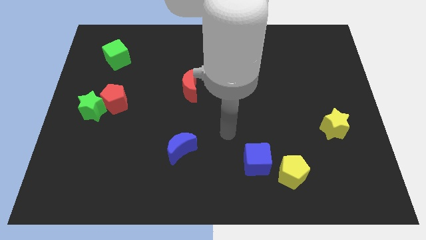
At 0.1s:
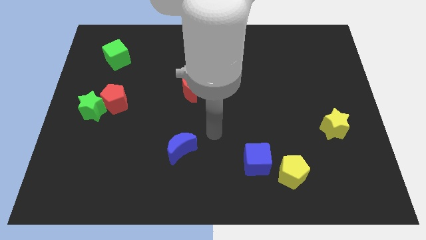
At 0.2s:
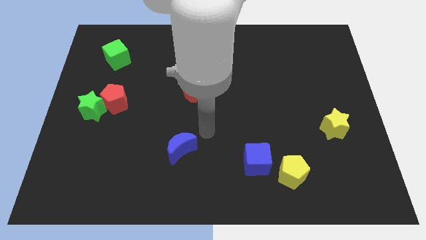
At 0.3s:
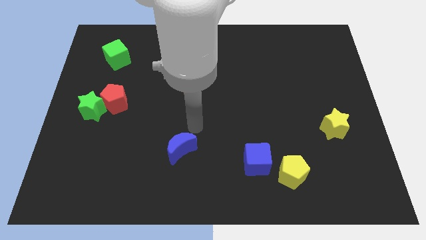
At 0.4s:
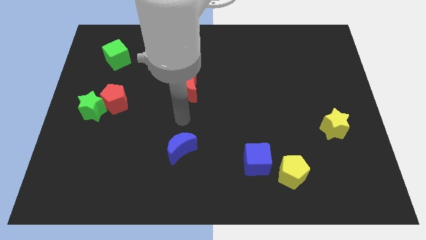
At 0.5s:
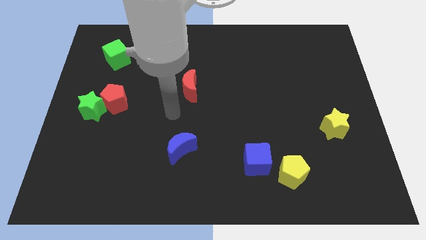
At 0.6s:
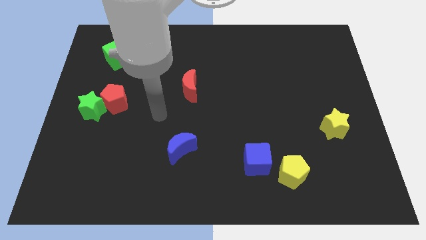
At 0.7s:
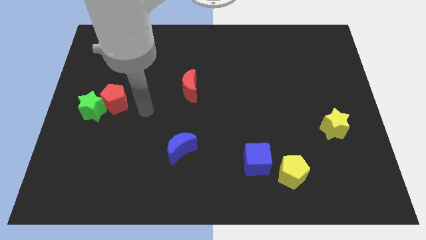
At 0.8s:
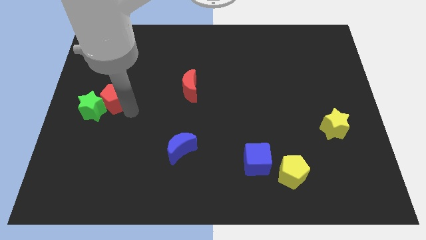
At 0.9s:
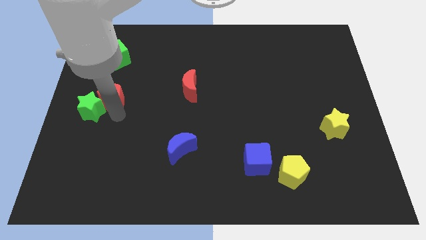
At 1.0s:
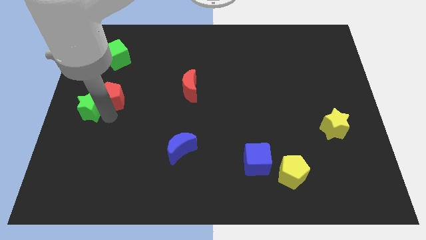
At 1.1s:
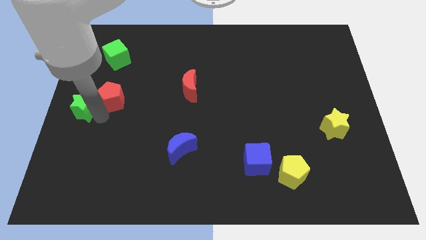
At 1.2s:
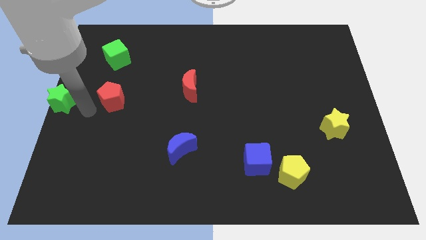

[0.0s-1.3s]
pull the red pentagon apart from the green star

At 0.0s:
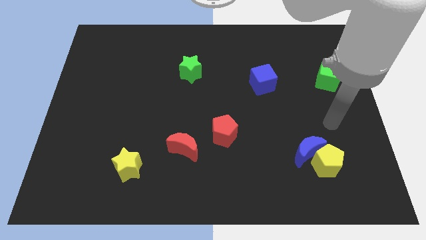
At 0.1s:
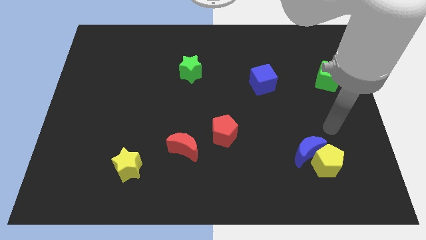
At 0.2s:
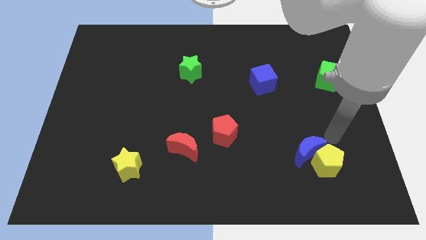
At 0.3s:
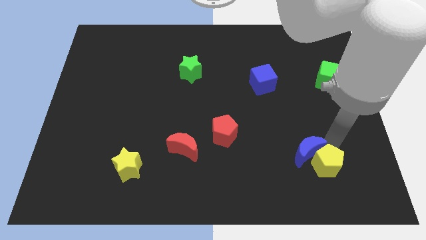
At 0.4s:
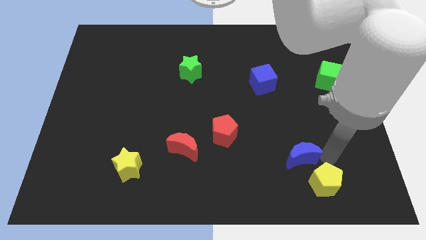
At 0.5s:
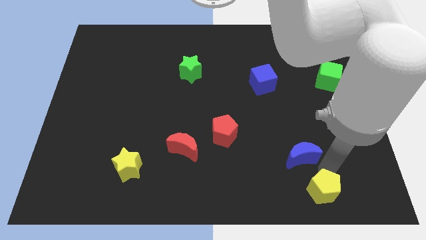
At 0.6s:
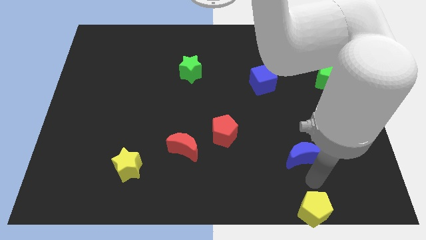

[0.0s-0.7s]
pull the blue moon apart from the yellow pentagon

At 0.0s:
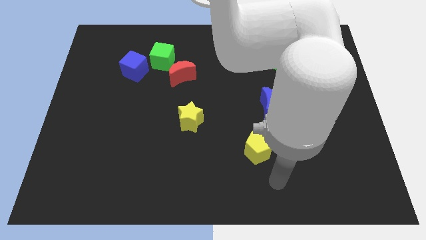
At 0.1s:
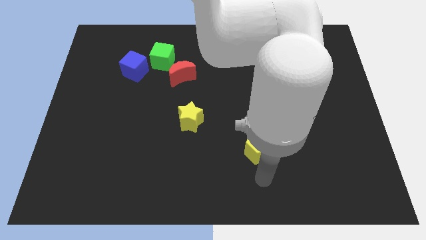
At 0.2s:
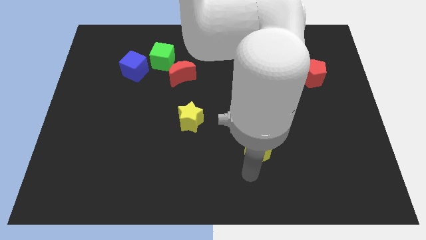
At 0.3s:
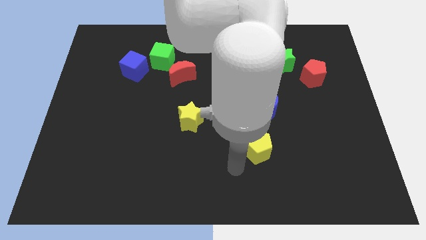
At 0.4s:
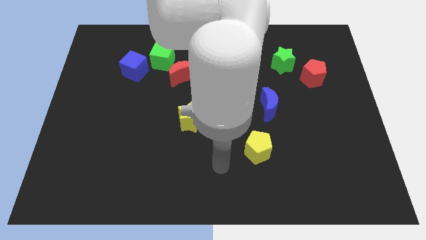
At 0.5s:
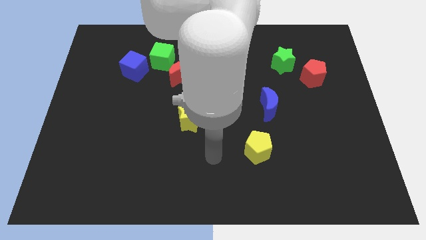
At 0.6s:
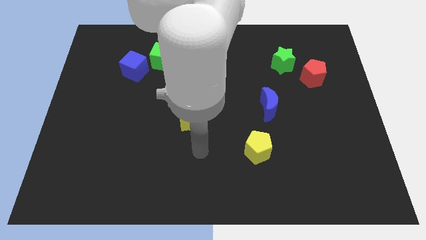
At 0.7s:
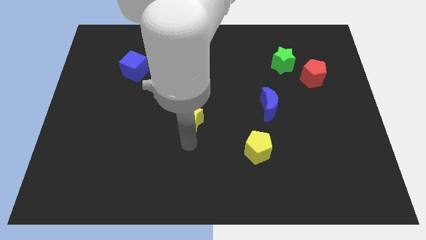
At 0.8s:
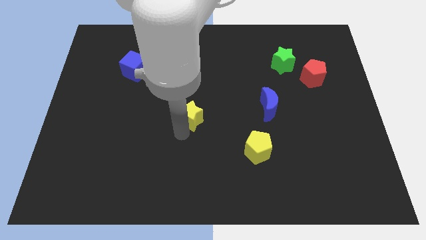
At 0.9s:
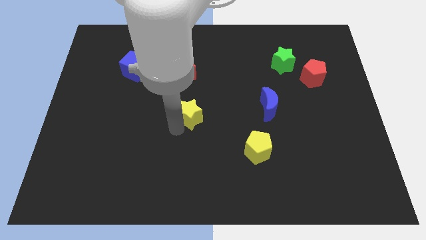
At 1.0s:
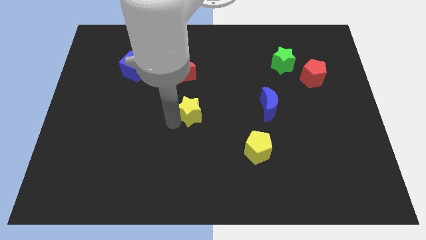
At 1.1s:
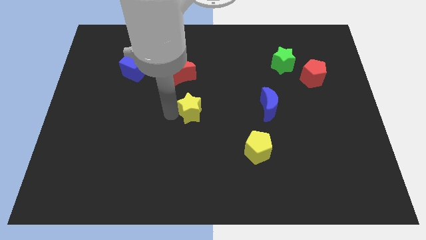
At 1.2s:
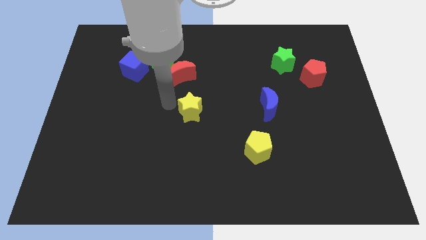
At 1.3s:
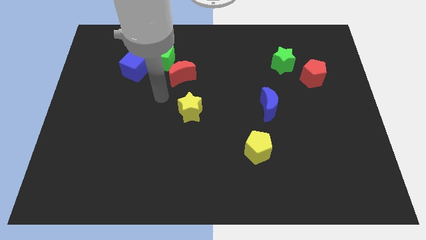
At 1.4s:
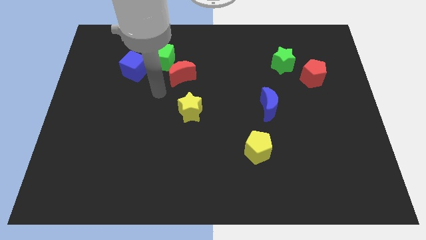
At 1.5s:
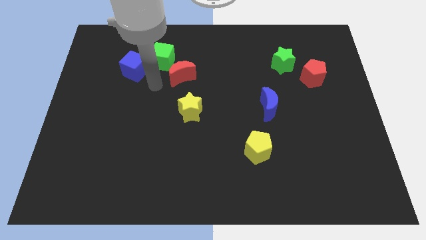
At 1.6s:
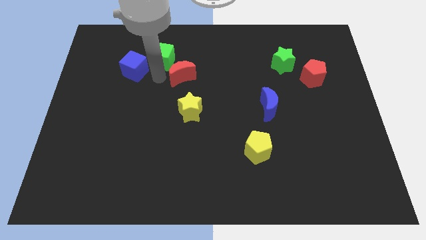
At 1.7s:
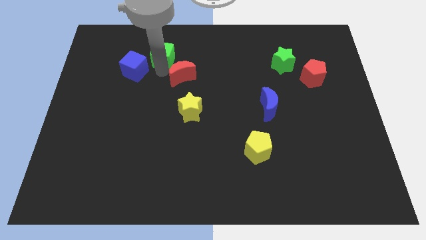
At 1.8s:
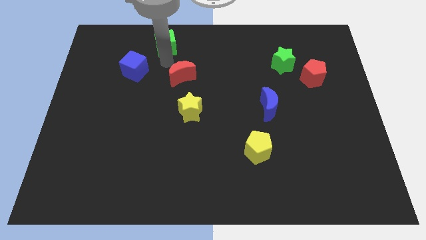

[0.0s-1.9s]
separate the red moon from the green cube

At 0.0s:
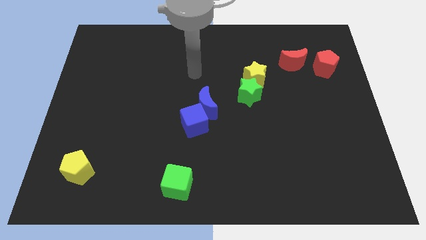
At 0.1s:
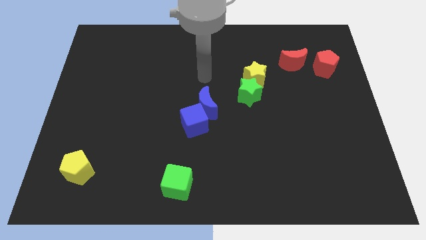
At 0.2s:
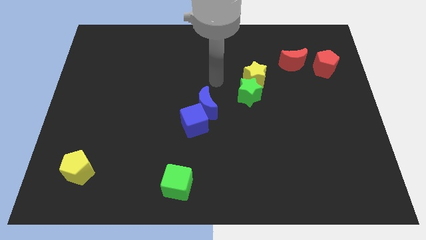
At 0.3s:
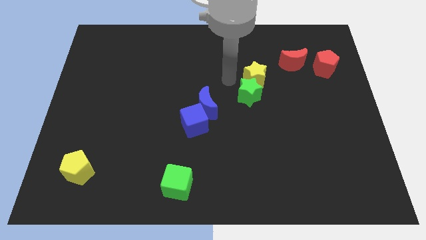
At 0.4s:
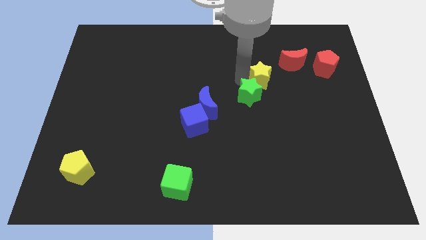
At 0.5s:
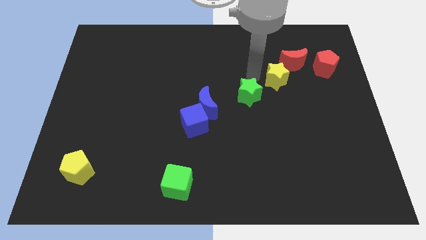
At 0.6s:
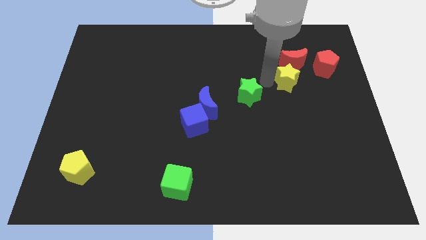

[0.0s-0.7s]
separate the green star from the yellow star

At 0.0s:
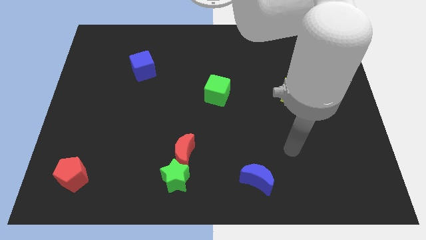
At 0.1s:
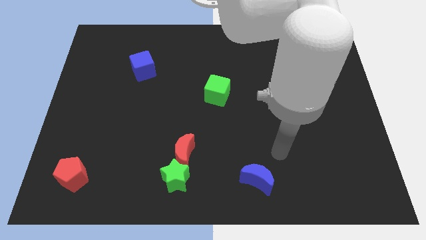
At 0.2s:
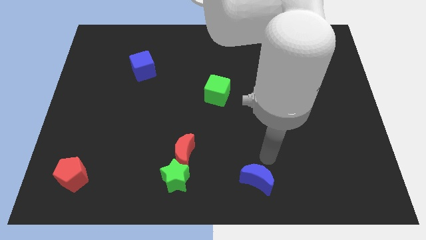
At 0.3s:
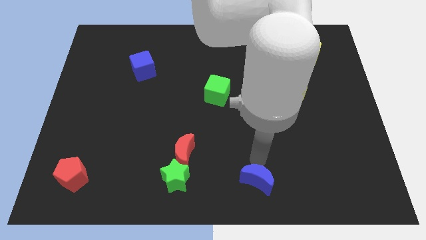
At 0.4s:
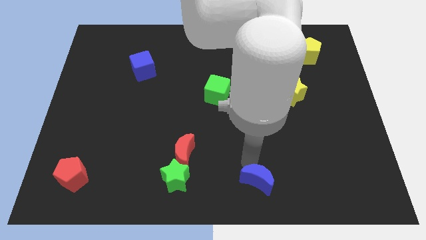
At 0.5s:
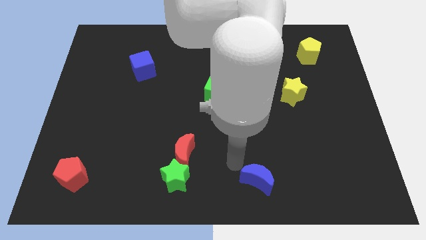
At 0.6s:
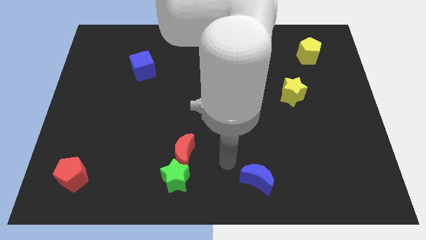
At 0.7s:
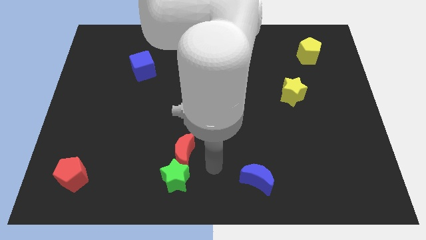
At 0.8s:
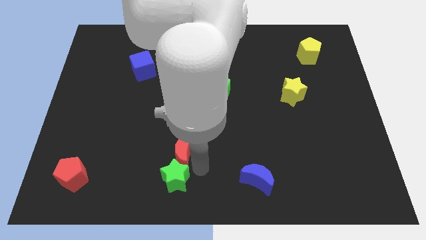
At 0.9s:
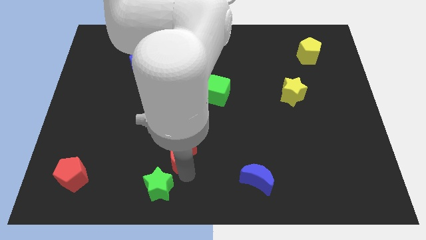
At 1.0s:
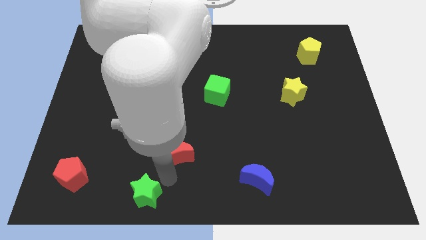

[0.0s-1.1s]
move the red moon away from the green star

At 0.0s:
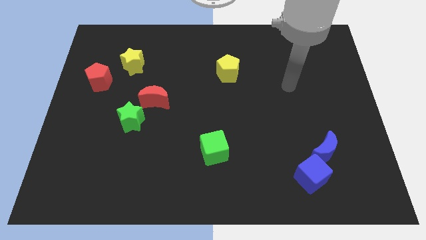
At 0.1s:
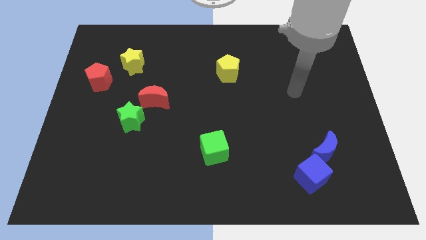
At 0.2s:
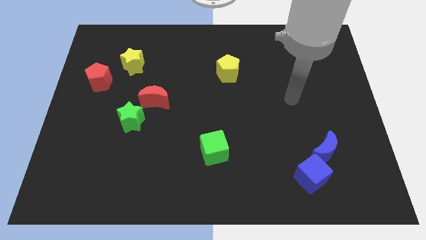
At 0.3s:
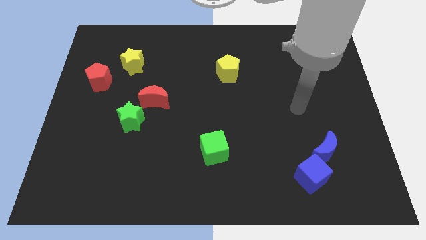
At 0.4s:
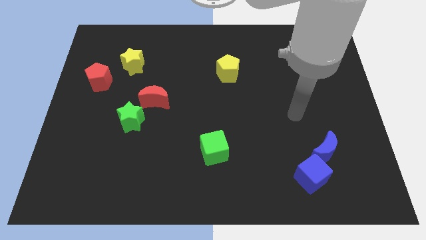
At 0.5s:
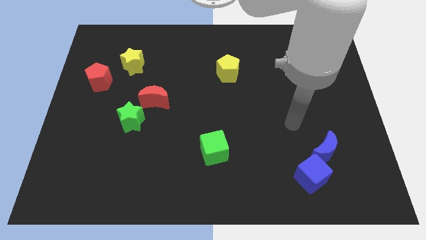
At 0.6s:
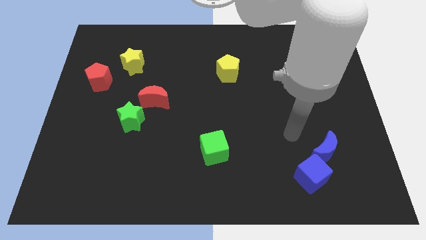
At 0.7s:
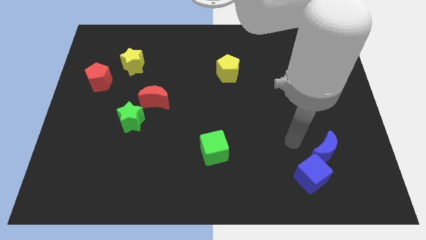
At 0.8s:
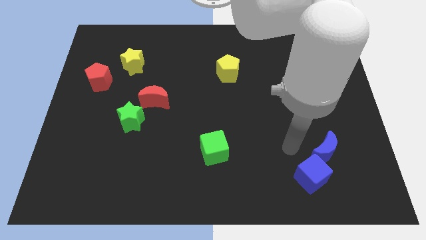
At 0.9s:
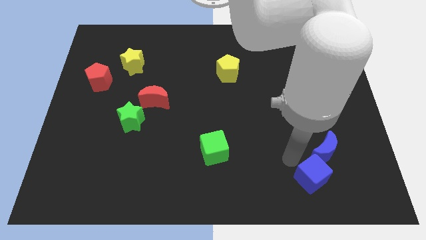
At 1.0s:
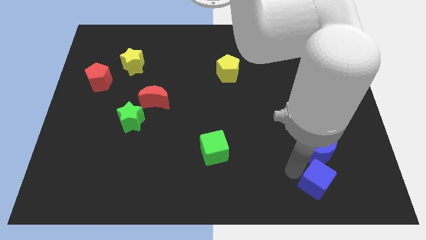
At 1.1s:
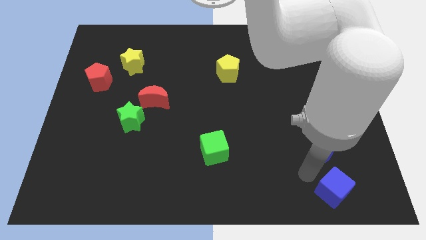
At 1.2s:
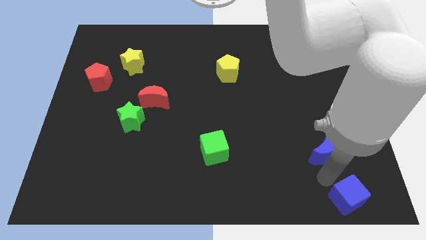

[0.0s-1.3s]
move the blue moon away from the blue cube

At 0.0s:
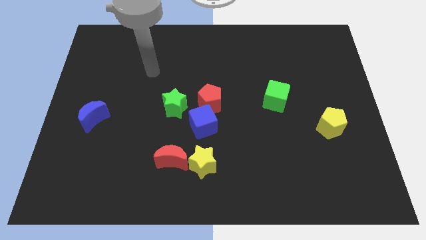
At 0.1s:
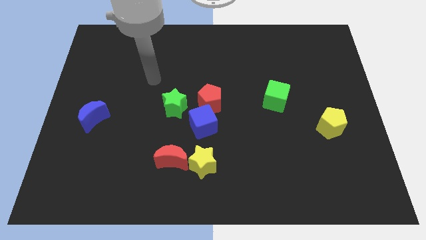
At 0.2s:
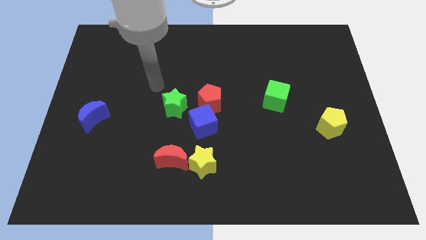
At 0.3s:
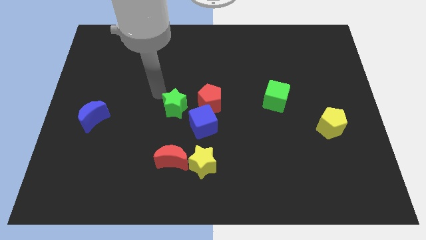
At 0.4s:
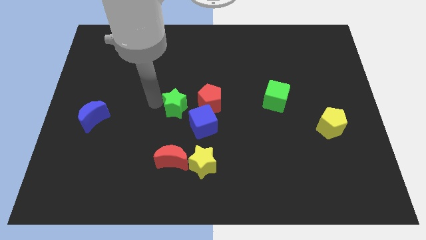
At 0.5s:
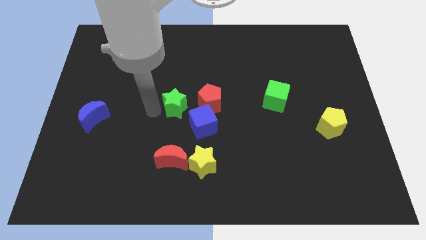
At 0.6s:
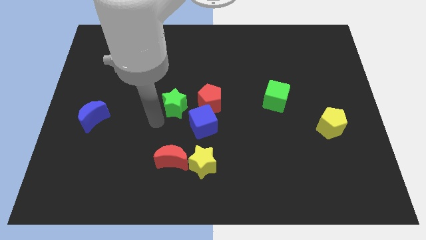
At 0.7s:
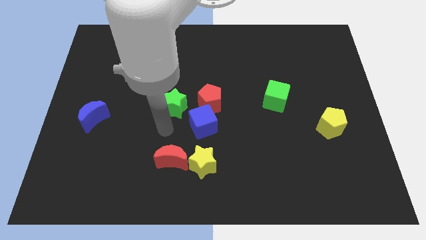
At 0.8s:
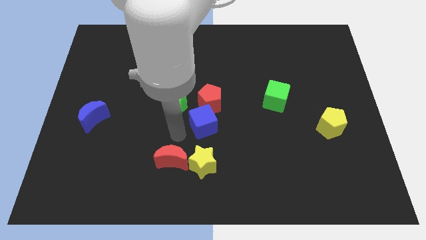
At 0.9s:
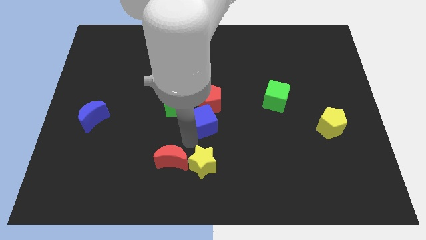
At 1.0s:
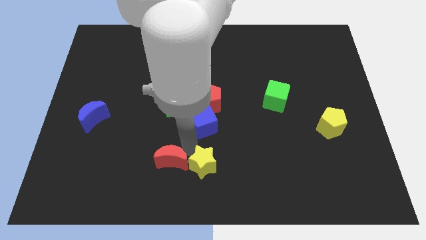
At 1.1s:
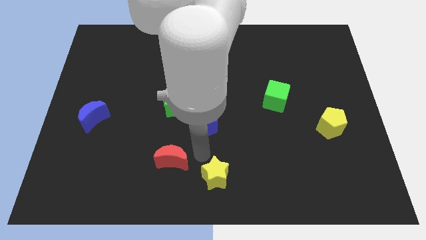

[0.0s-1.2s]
separate the red moon from the yellow star

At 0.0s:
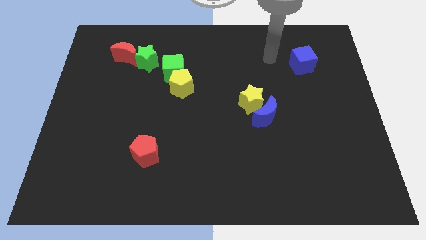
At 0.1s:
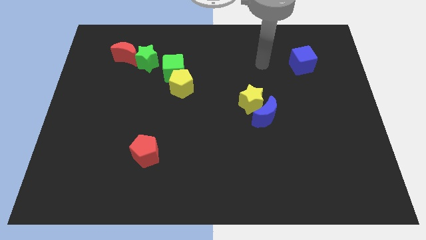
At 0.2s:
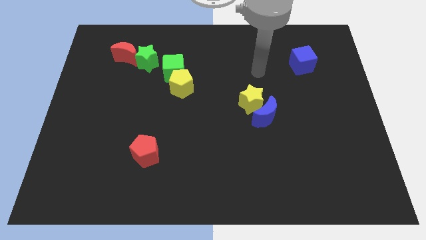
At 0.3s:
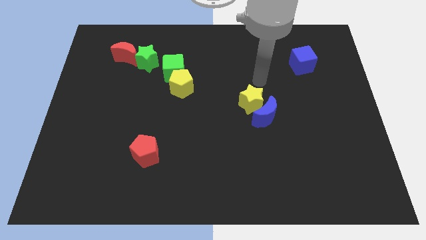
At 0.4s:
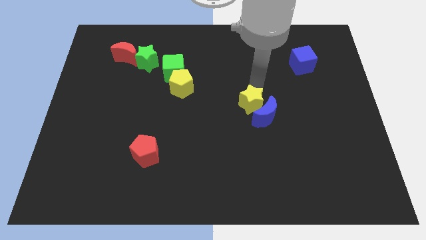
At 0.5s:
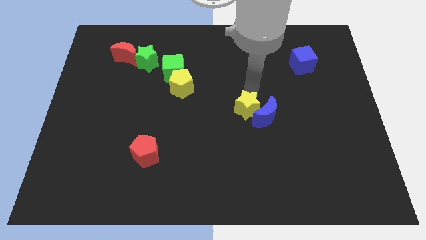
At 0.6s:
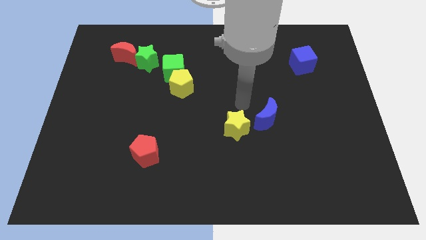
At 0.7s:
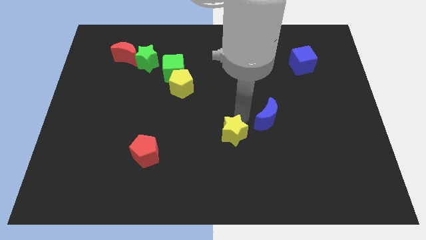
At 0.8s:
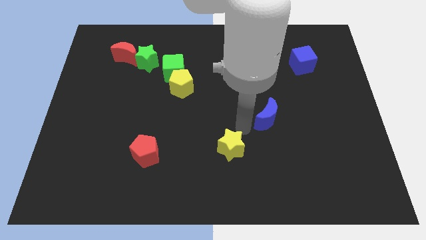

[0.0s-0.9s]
separate the blue moon from the yellow star

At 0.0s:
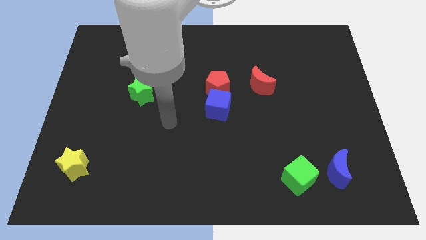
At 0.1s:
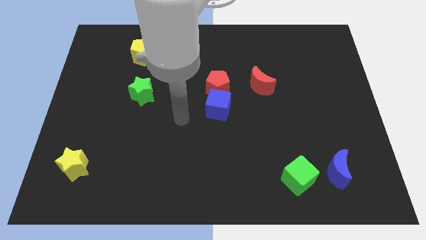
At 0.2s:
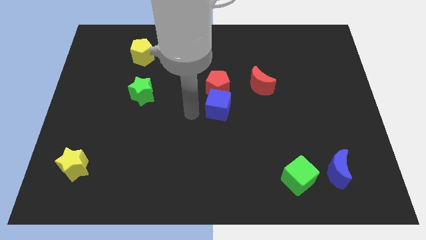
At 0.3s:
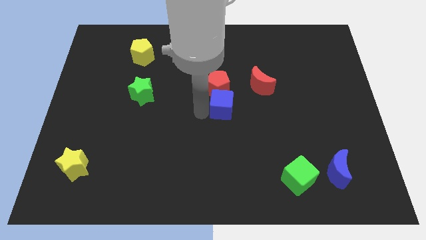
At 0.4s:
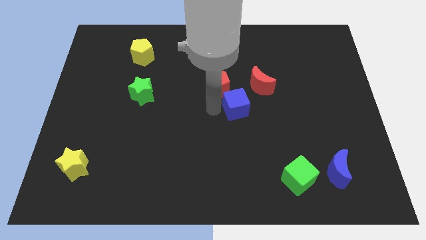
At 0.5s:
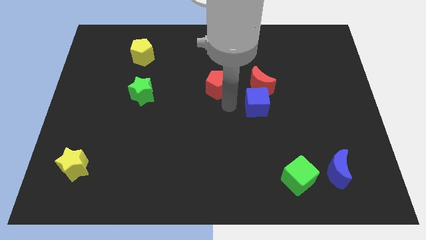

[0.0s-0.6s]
move the red pentagon away from the blue cube
